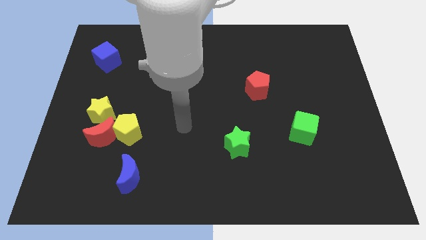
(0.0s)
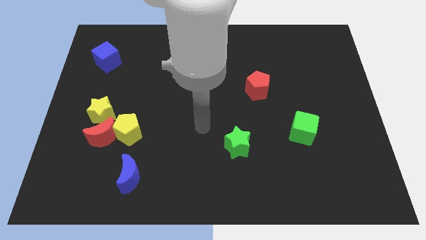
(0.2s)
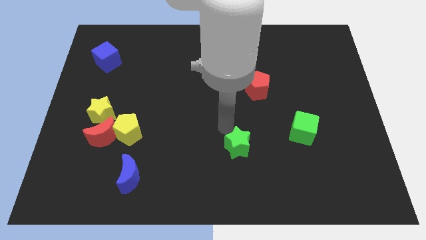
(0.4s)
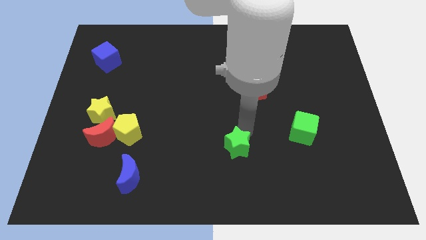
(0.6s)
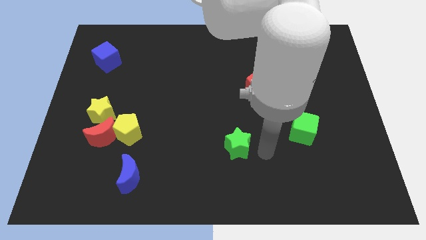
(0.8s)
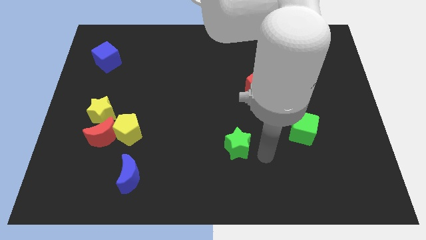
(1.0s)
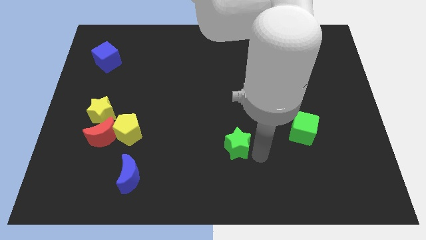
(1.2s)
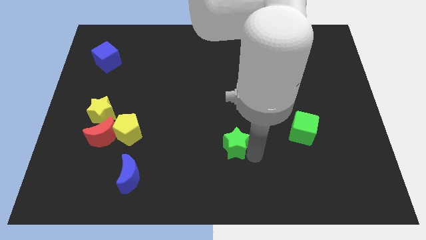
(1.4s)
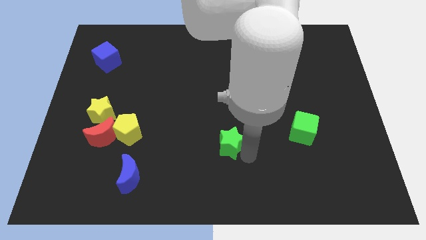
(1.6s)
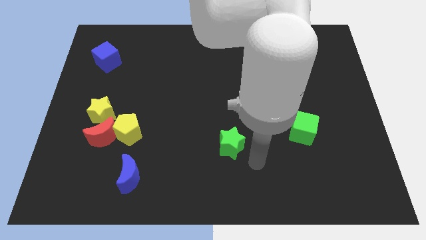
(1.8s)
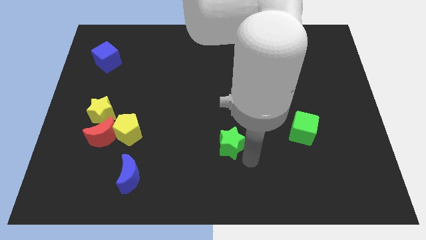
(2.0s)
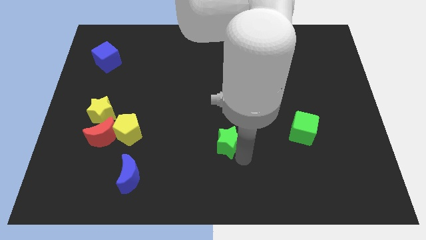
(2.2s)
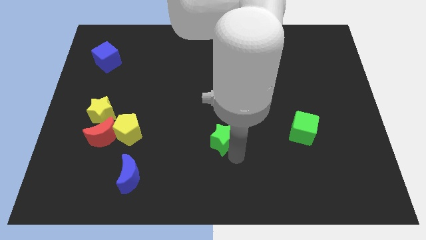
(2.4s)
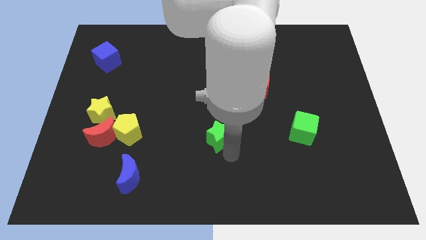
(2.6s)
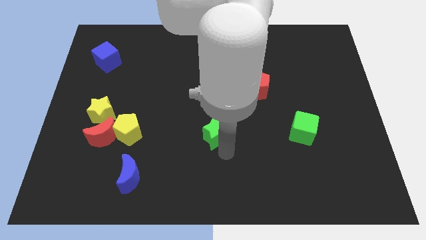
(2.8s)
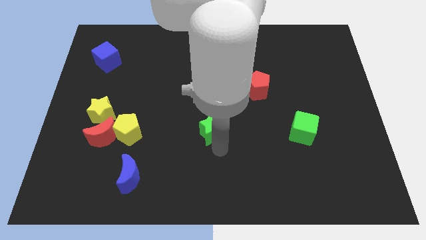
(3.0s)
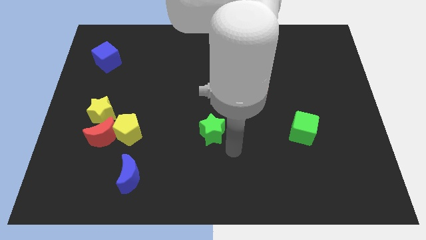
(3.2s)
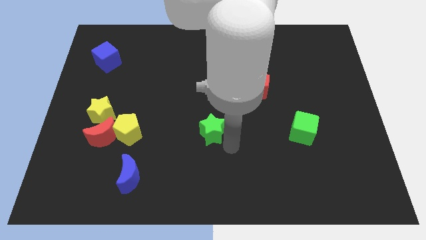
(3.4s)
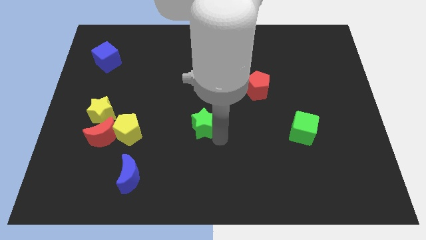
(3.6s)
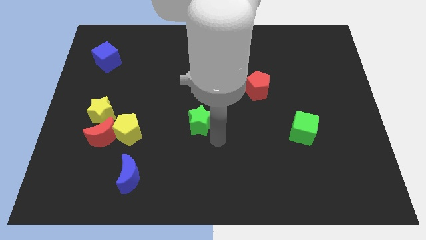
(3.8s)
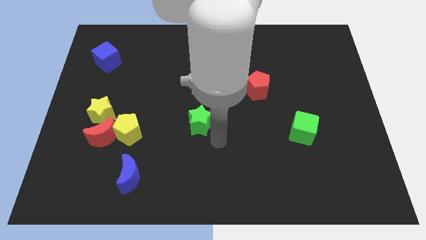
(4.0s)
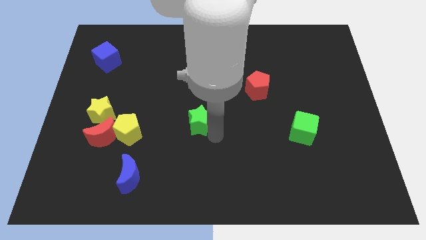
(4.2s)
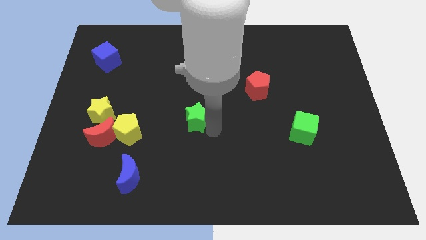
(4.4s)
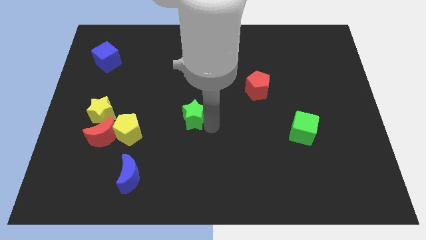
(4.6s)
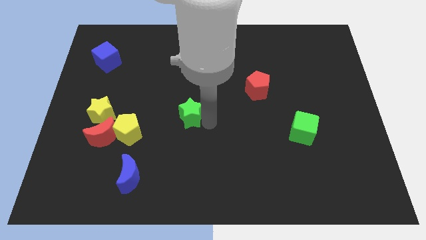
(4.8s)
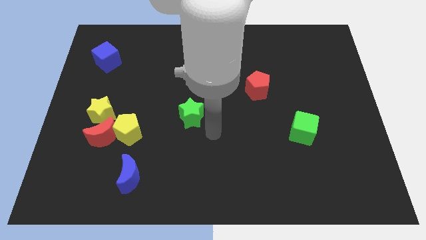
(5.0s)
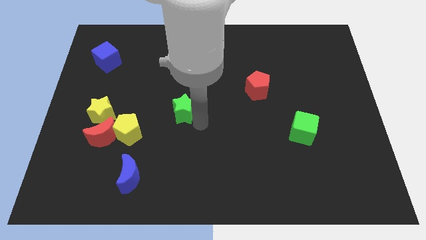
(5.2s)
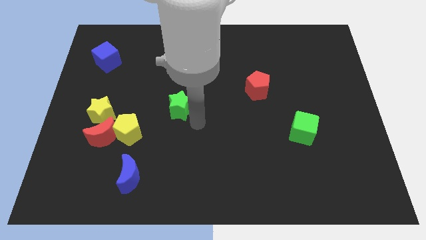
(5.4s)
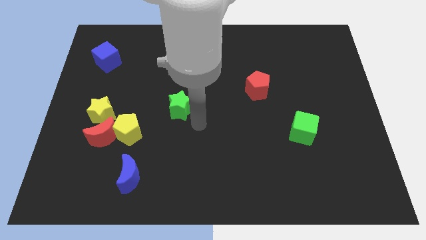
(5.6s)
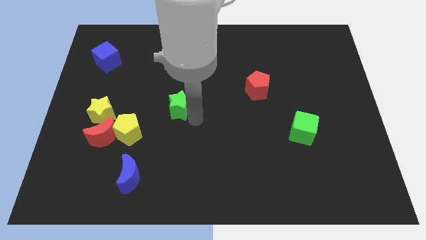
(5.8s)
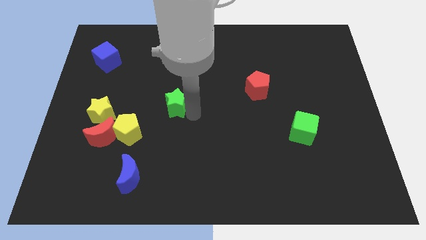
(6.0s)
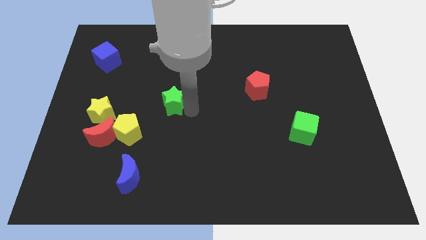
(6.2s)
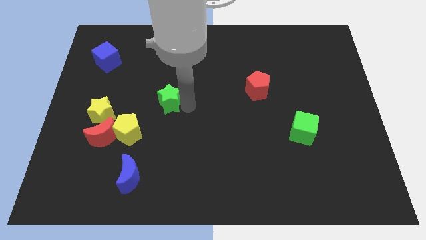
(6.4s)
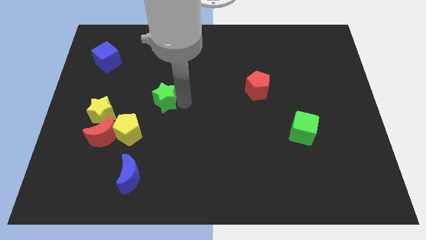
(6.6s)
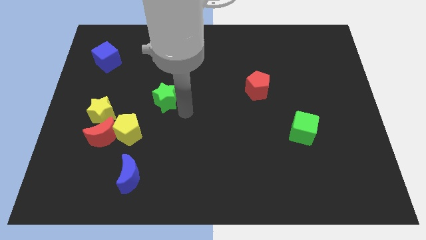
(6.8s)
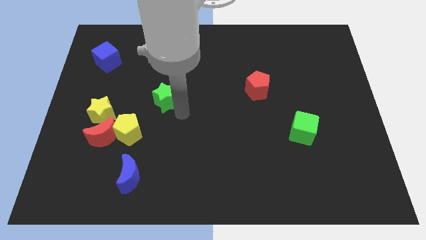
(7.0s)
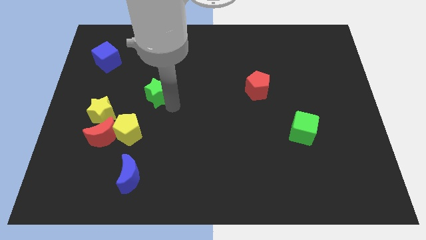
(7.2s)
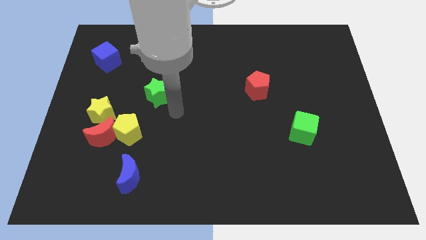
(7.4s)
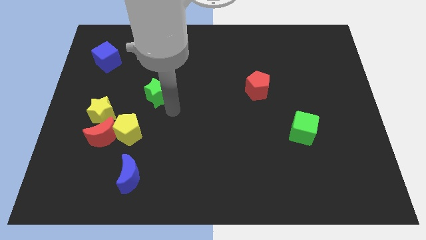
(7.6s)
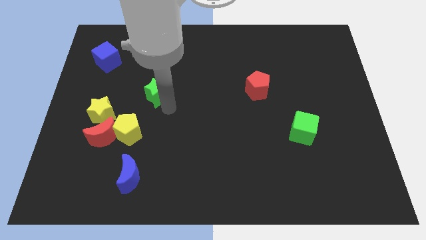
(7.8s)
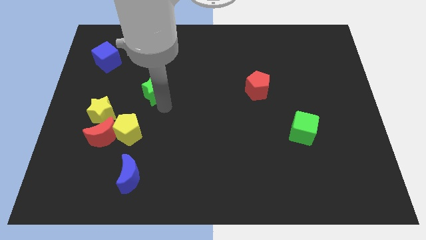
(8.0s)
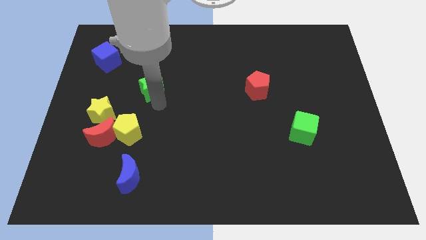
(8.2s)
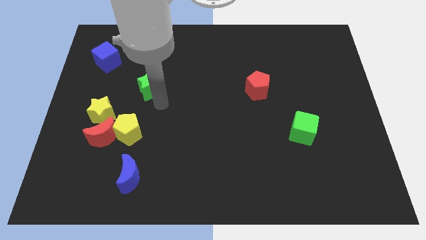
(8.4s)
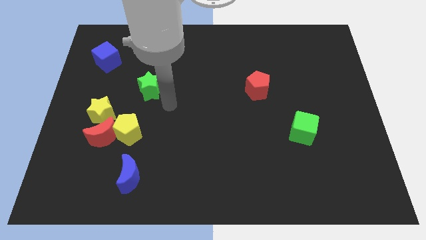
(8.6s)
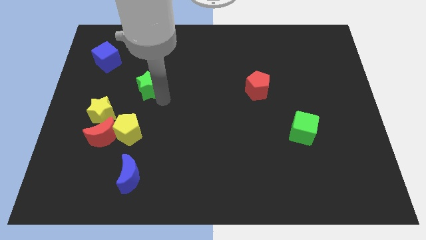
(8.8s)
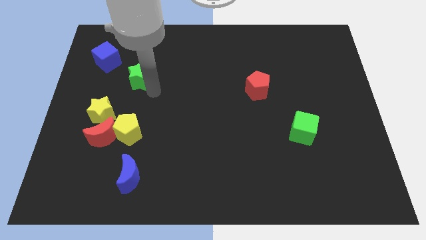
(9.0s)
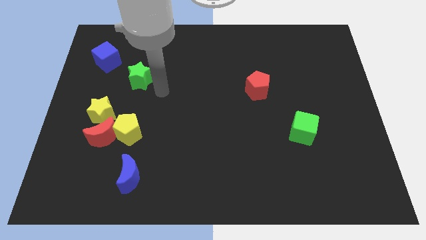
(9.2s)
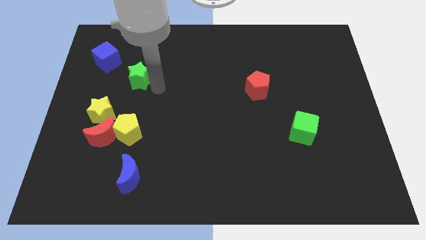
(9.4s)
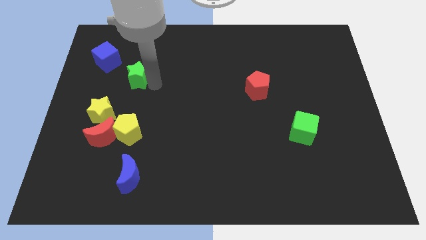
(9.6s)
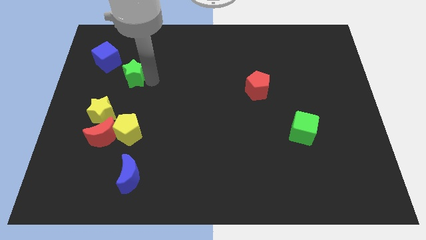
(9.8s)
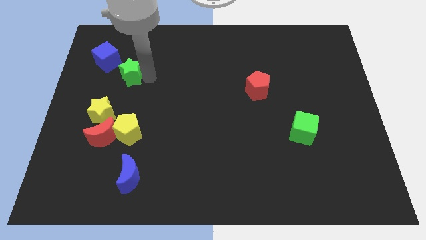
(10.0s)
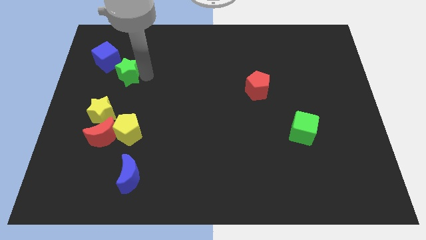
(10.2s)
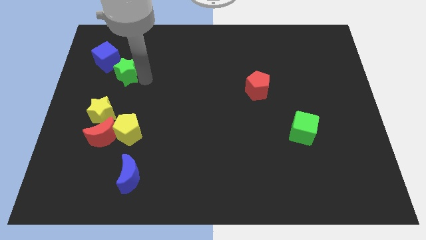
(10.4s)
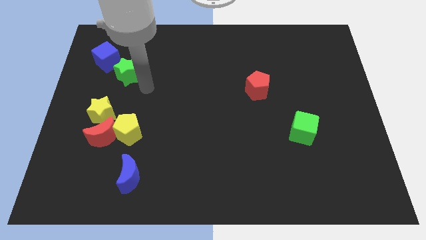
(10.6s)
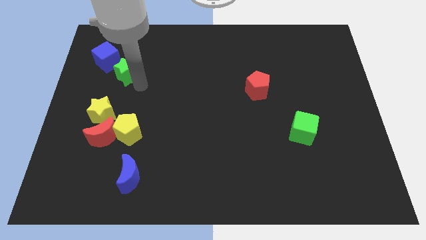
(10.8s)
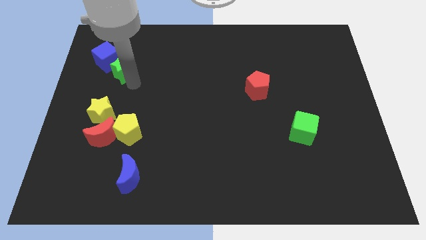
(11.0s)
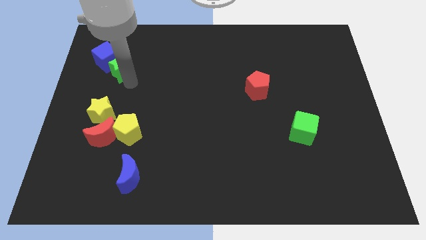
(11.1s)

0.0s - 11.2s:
move the green star to the blue cube

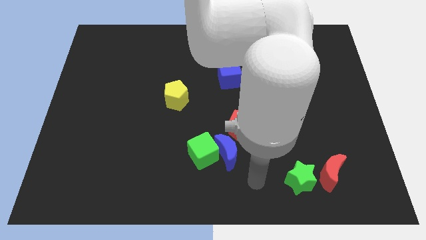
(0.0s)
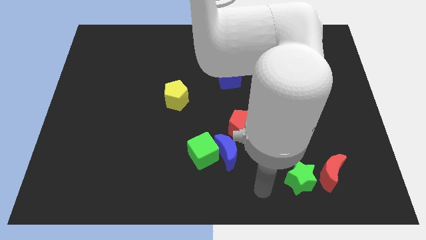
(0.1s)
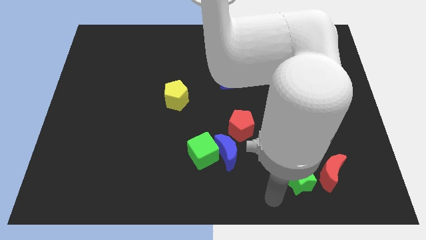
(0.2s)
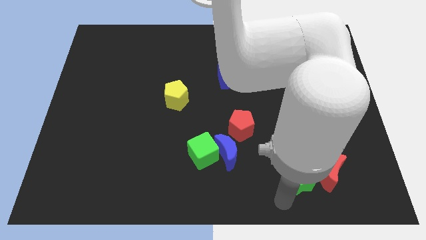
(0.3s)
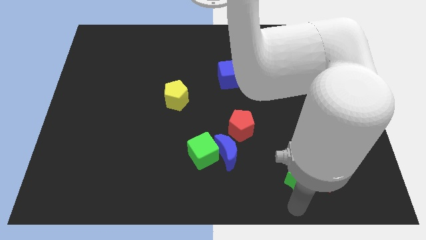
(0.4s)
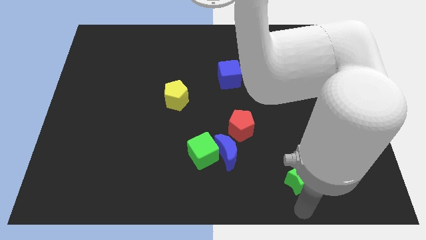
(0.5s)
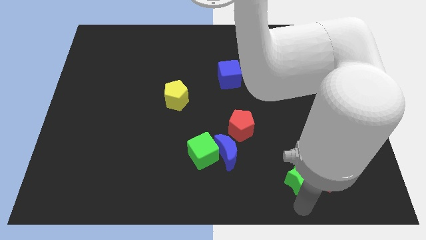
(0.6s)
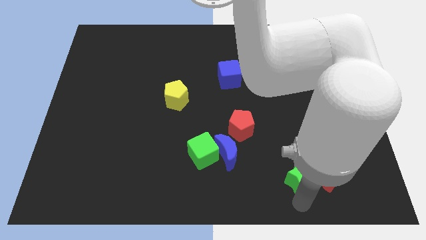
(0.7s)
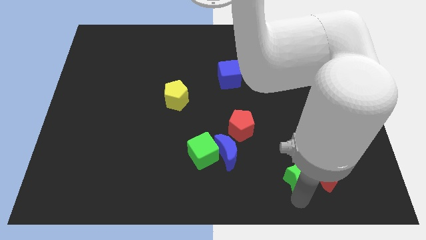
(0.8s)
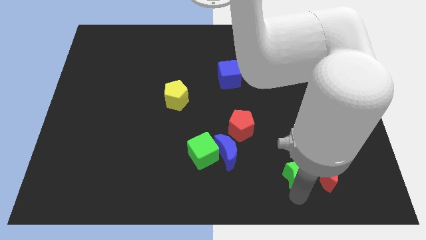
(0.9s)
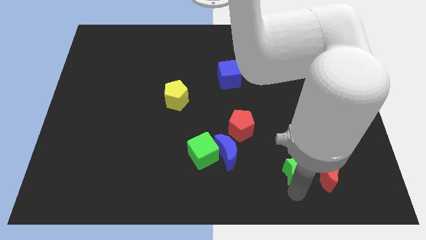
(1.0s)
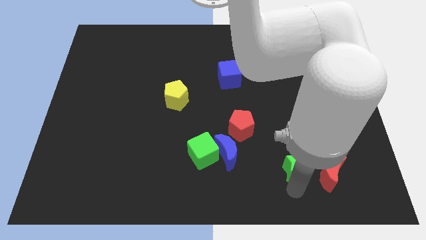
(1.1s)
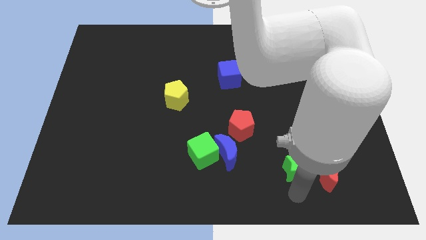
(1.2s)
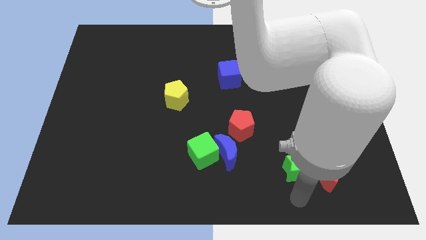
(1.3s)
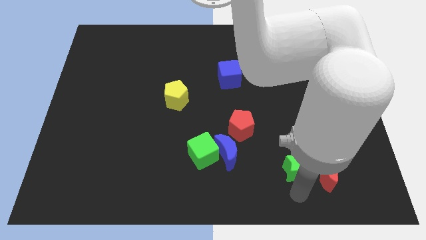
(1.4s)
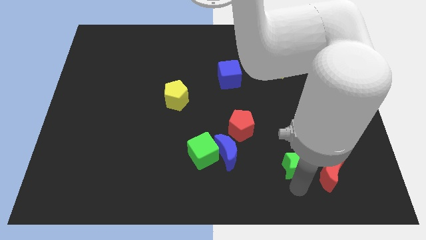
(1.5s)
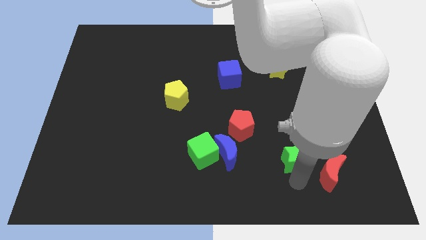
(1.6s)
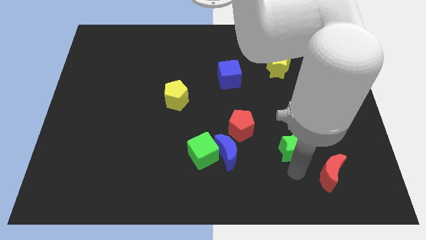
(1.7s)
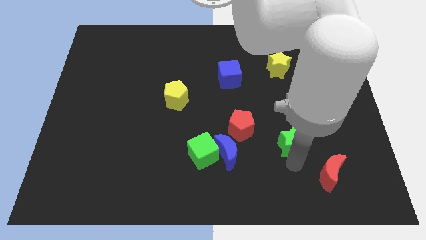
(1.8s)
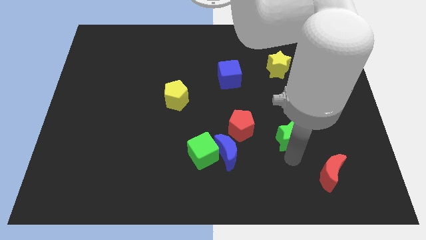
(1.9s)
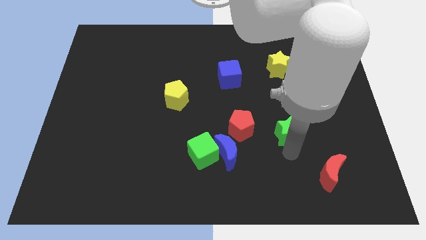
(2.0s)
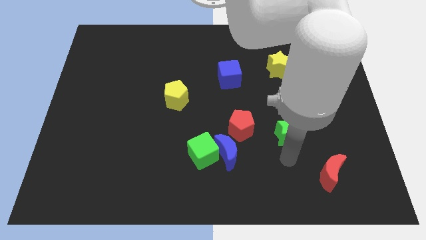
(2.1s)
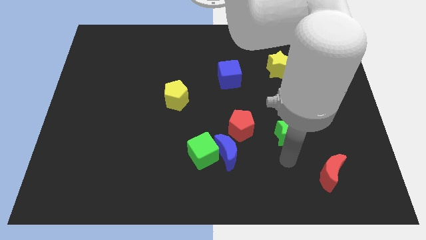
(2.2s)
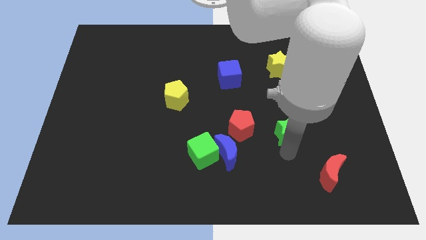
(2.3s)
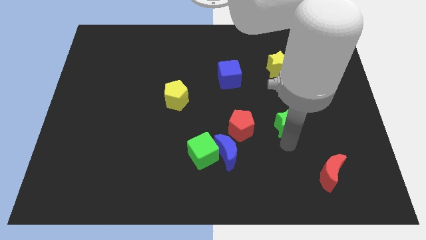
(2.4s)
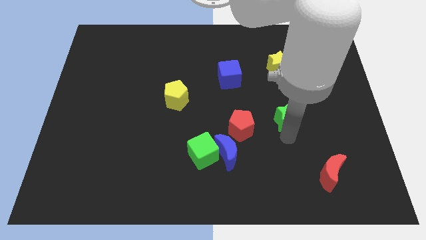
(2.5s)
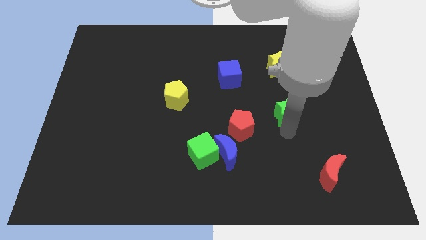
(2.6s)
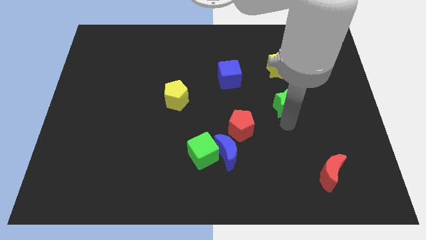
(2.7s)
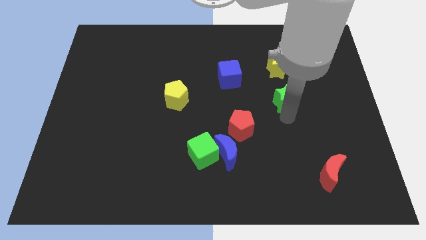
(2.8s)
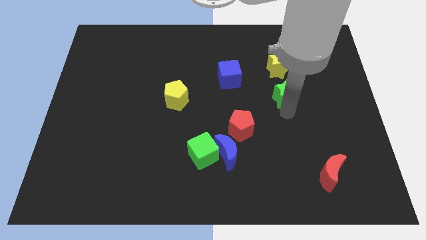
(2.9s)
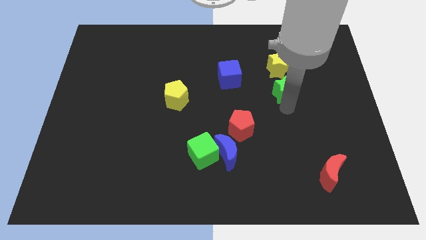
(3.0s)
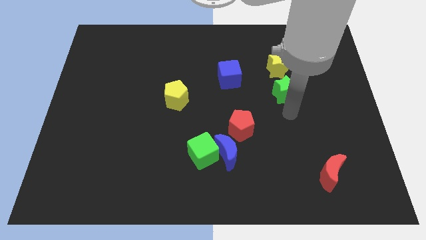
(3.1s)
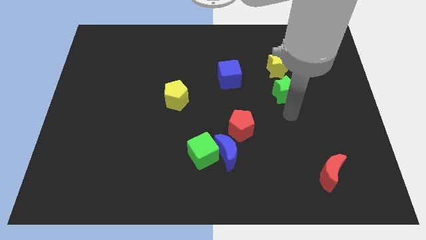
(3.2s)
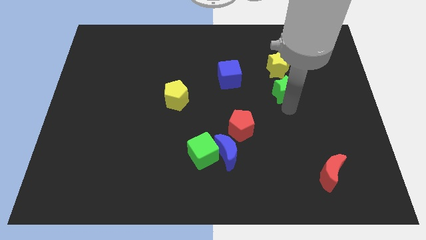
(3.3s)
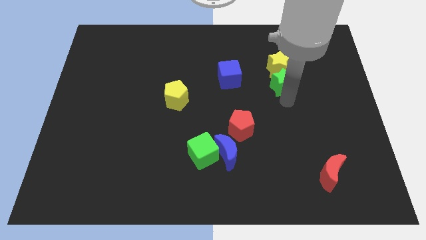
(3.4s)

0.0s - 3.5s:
put the green star close to the yellow star
